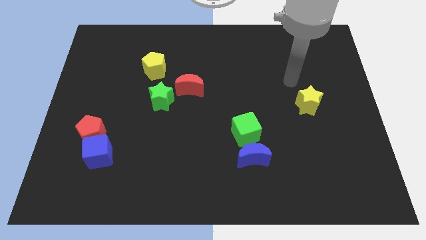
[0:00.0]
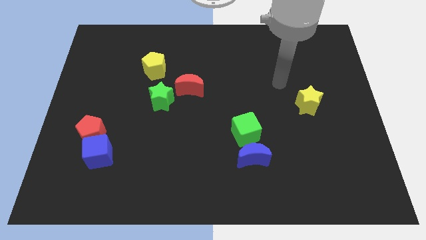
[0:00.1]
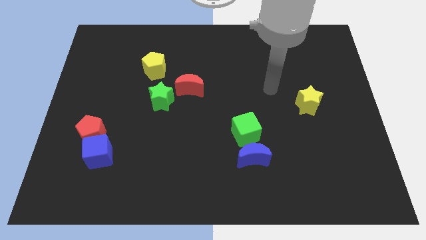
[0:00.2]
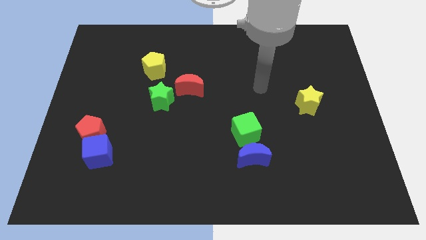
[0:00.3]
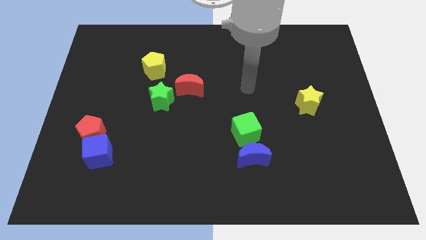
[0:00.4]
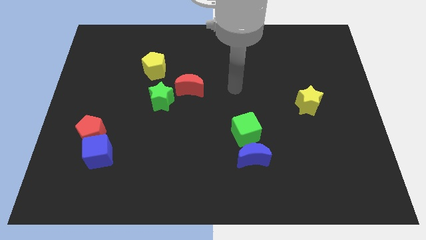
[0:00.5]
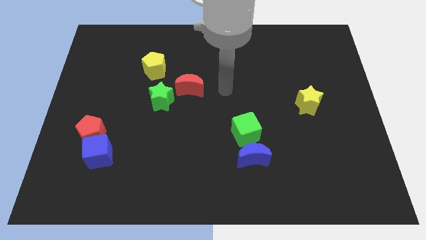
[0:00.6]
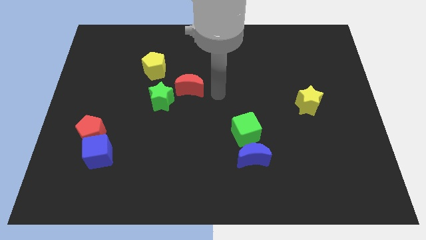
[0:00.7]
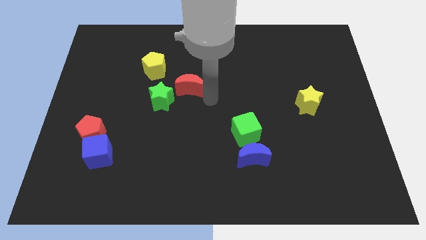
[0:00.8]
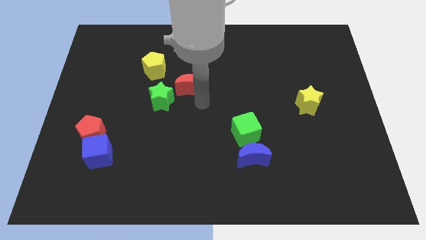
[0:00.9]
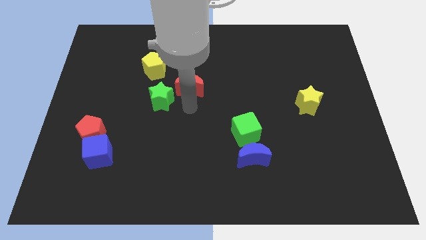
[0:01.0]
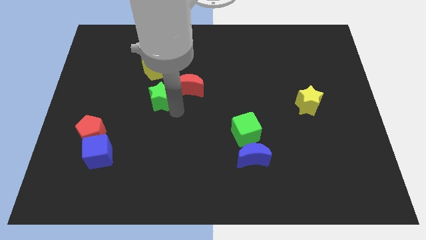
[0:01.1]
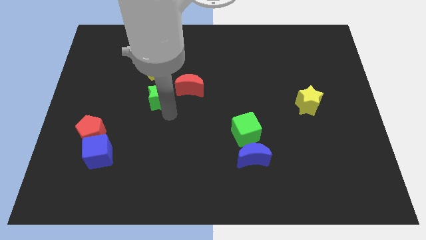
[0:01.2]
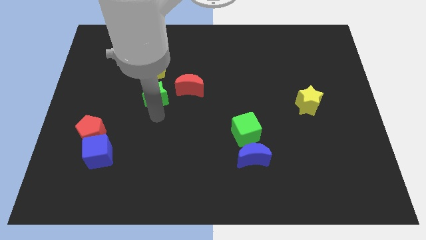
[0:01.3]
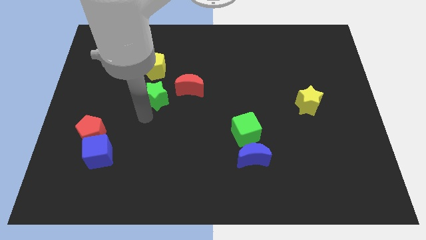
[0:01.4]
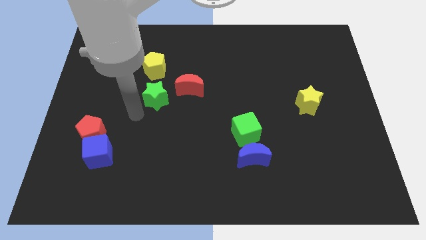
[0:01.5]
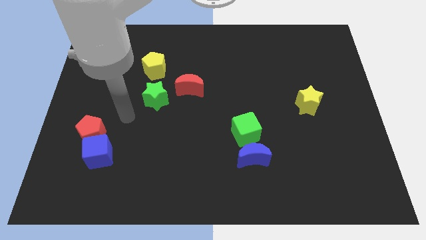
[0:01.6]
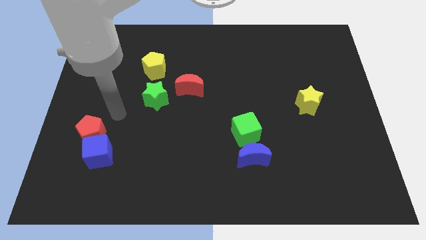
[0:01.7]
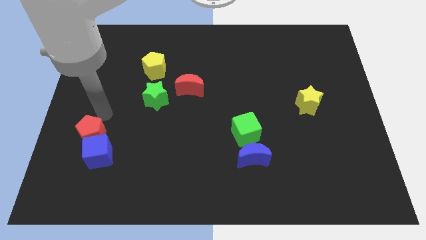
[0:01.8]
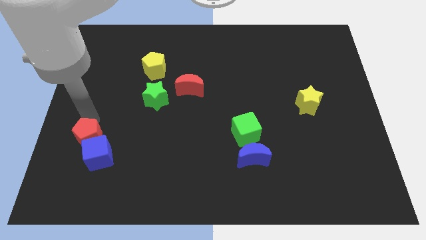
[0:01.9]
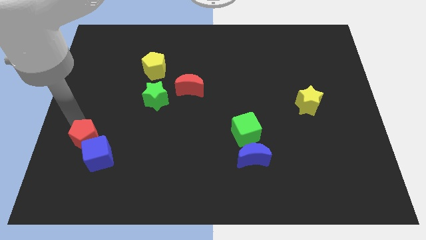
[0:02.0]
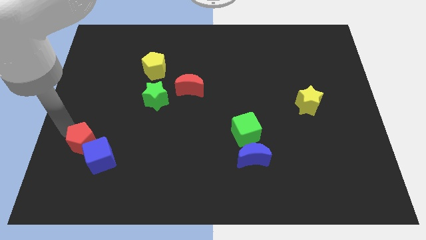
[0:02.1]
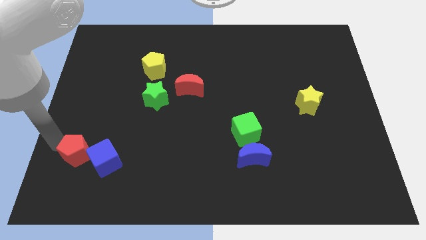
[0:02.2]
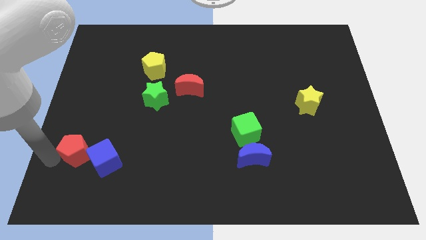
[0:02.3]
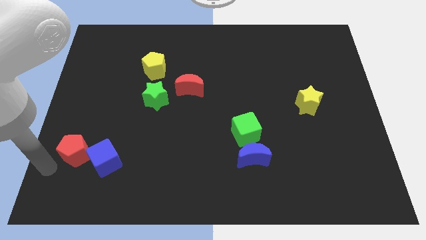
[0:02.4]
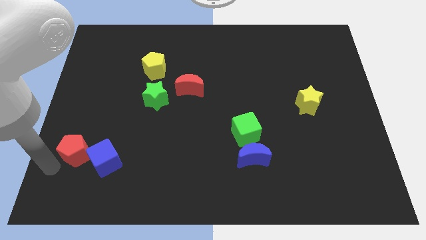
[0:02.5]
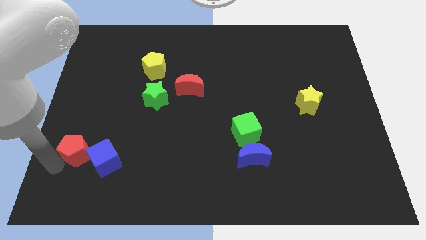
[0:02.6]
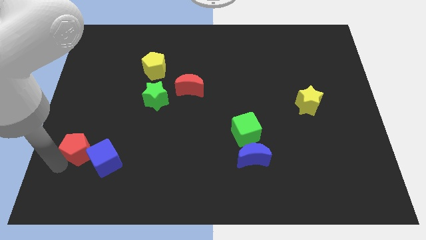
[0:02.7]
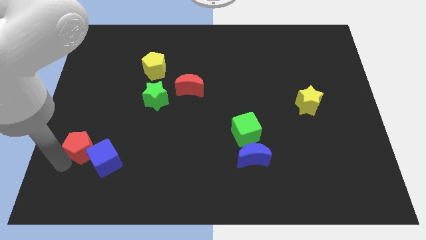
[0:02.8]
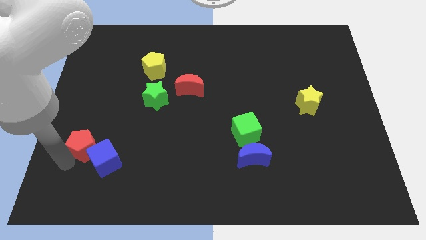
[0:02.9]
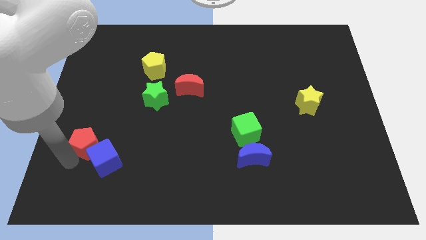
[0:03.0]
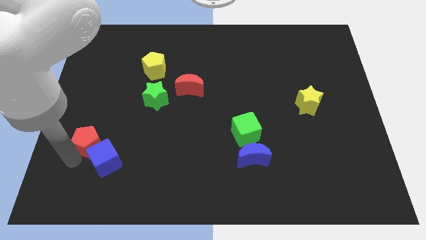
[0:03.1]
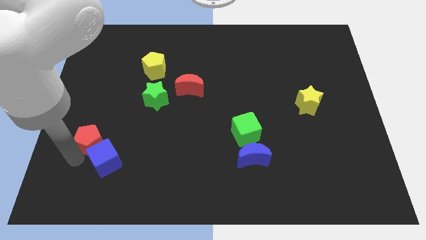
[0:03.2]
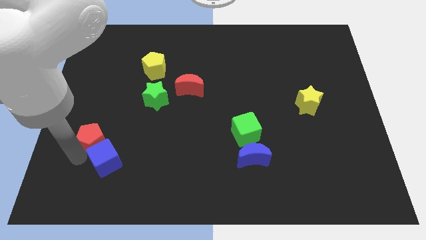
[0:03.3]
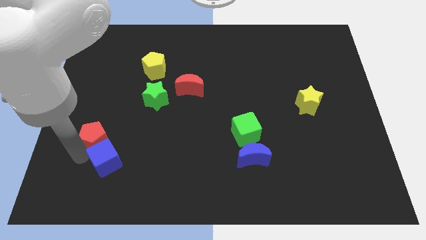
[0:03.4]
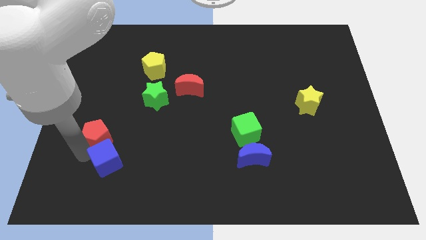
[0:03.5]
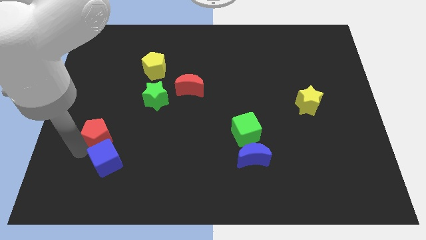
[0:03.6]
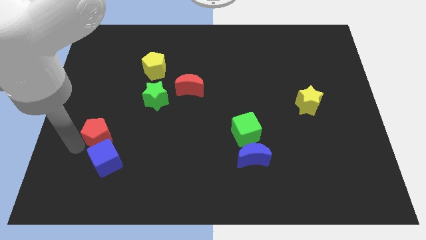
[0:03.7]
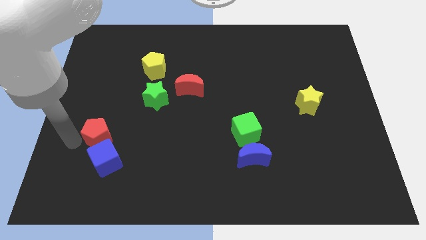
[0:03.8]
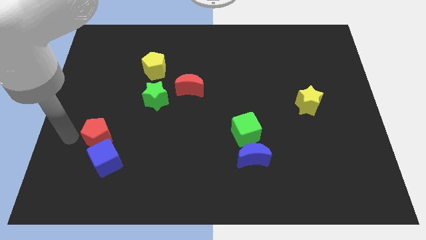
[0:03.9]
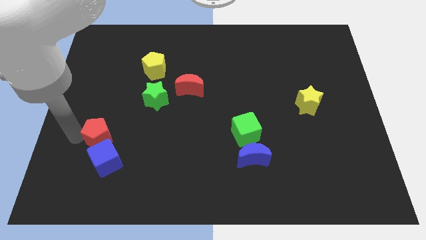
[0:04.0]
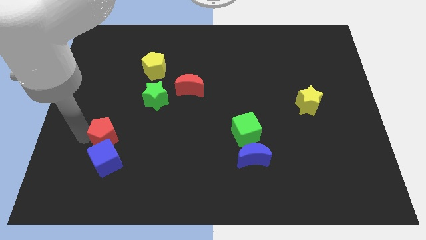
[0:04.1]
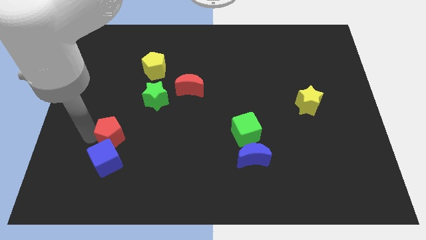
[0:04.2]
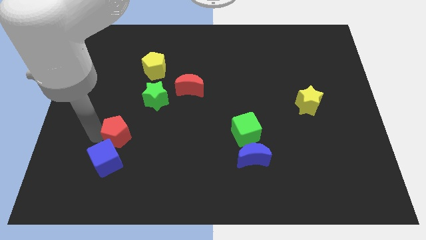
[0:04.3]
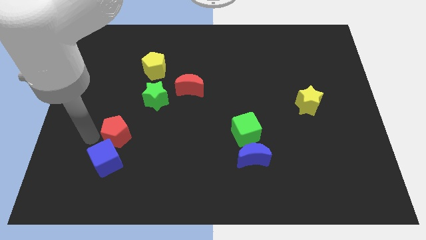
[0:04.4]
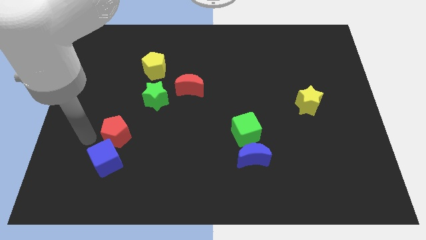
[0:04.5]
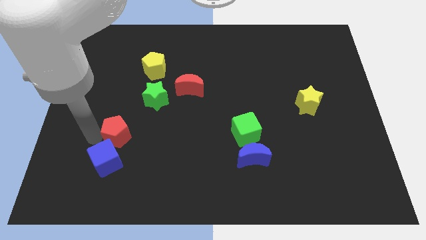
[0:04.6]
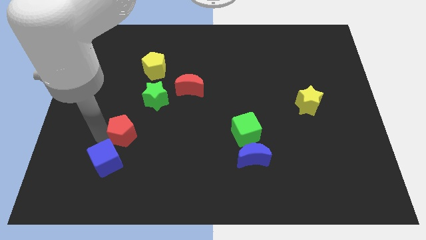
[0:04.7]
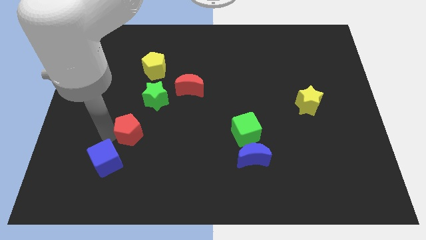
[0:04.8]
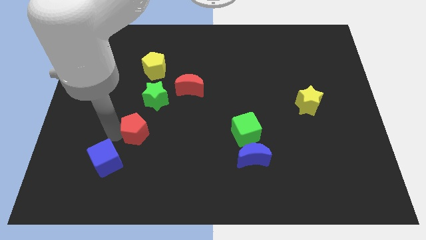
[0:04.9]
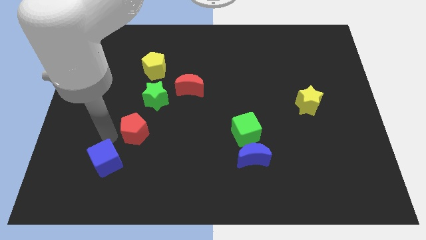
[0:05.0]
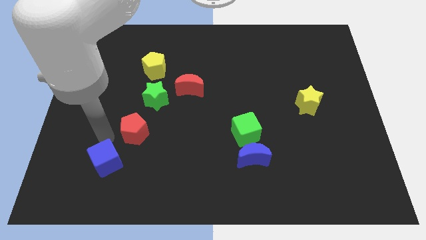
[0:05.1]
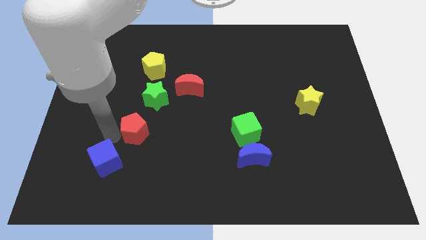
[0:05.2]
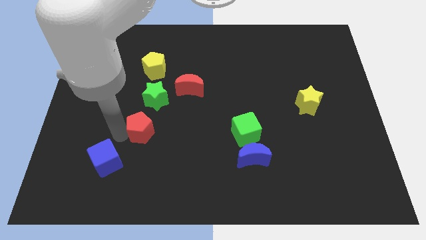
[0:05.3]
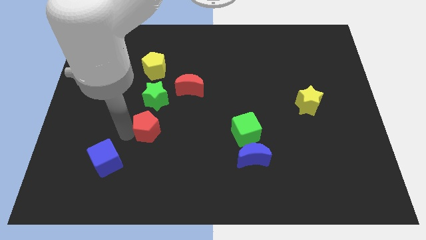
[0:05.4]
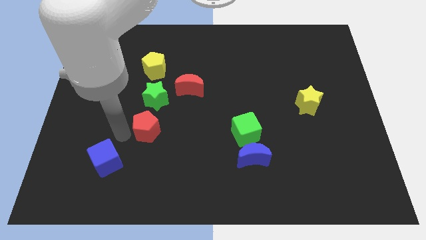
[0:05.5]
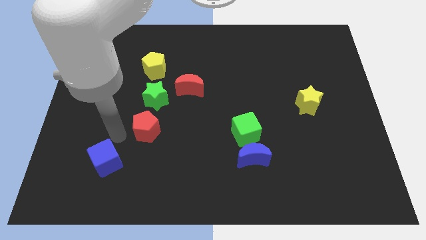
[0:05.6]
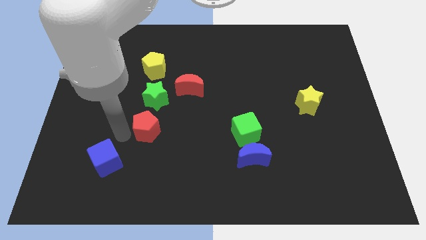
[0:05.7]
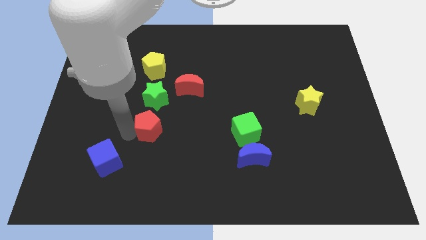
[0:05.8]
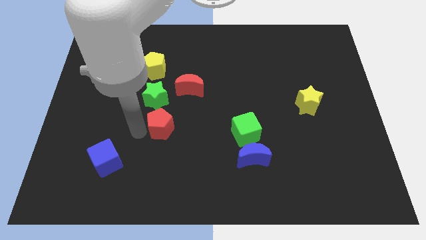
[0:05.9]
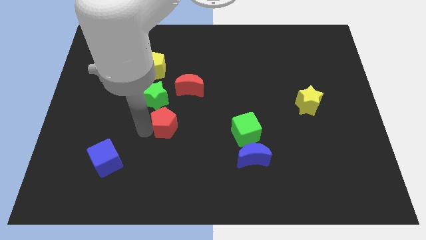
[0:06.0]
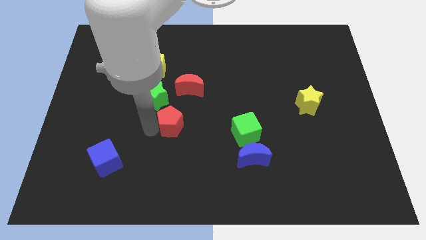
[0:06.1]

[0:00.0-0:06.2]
push the red pentagon to the middle of the board
